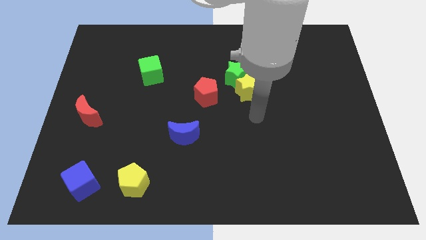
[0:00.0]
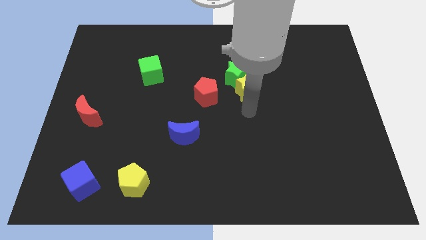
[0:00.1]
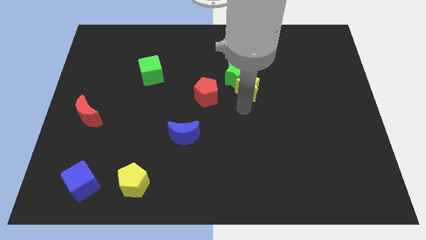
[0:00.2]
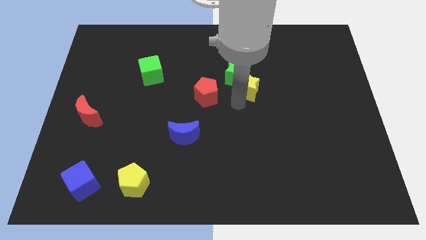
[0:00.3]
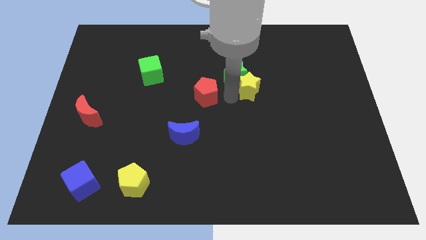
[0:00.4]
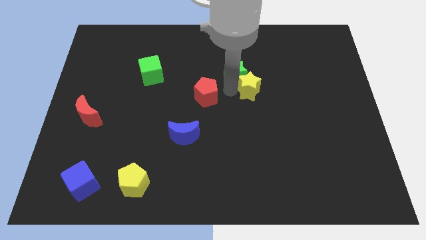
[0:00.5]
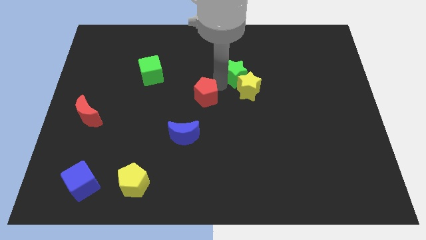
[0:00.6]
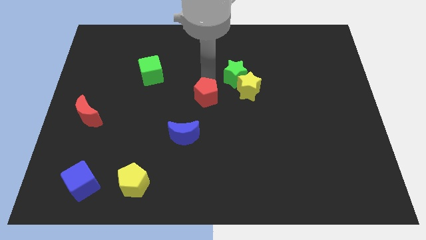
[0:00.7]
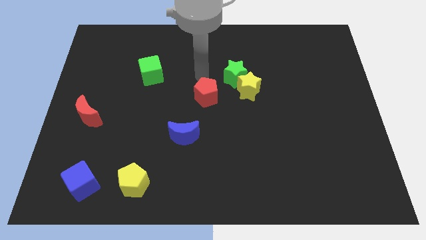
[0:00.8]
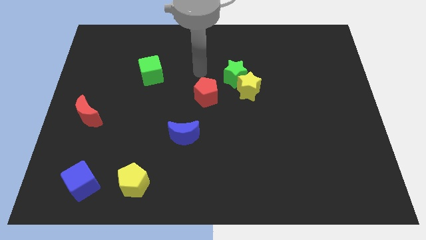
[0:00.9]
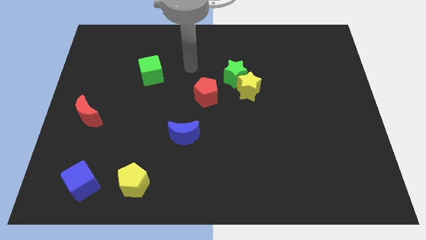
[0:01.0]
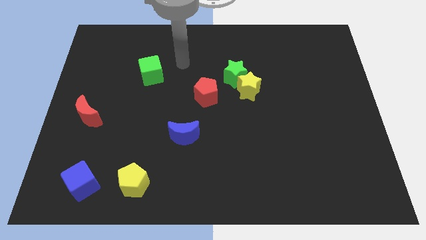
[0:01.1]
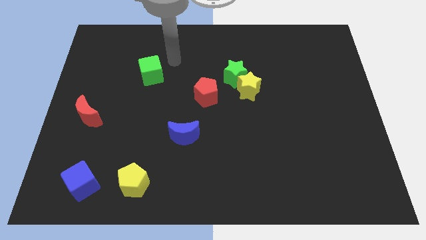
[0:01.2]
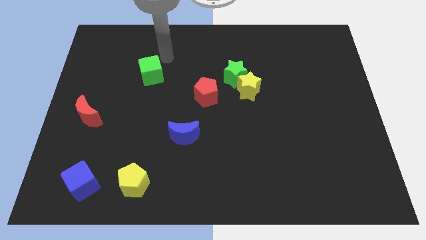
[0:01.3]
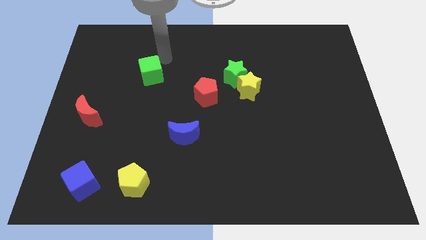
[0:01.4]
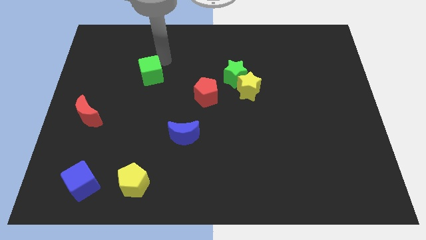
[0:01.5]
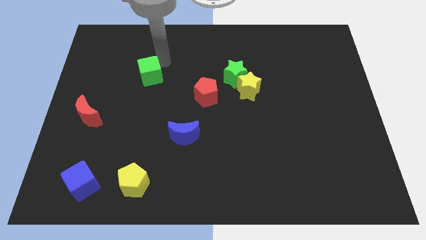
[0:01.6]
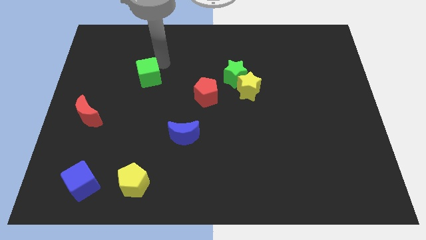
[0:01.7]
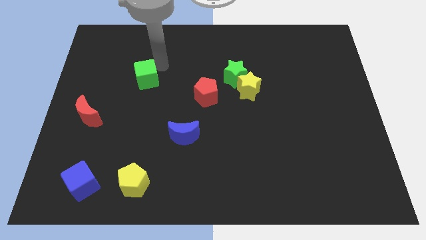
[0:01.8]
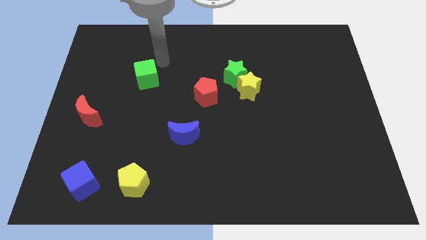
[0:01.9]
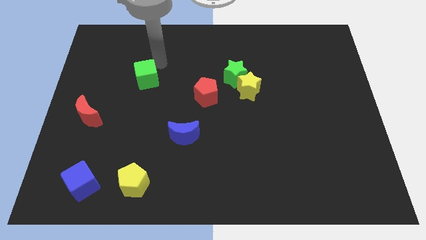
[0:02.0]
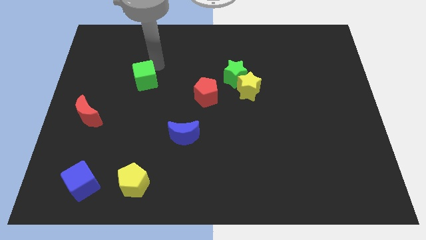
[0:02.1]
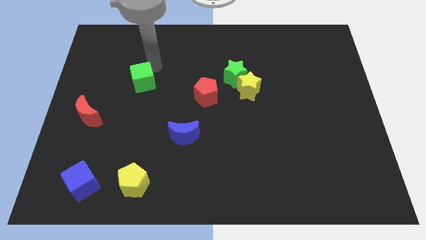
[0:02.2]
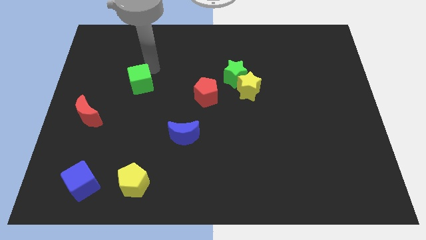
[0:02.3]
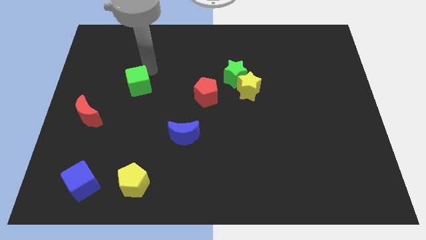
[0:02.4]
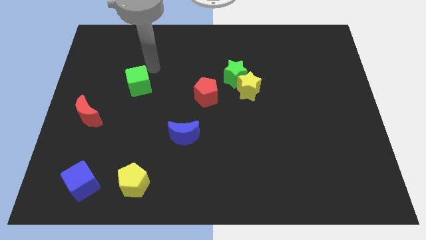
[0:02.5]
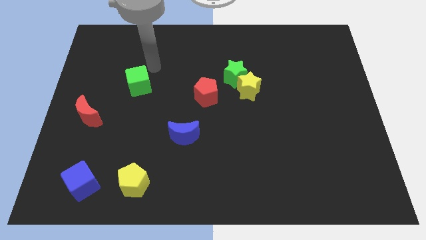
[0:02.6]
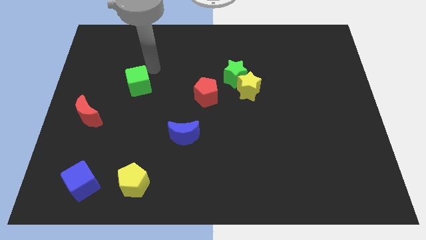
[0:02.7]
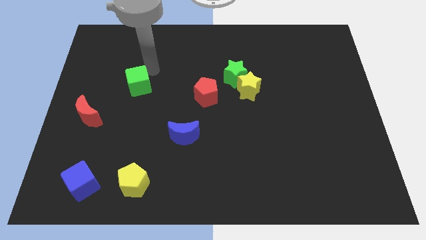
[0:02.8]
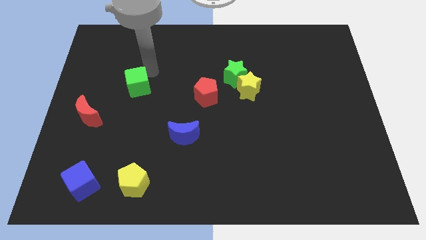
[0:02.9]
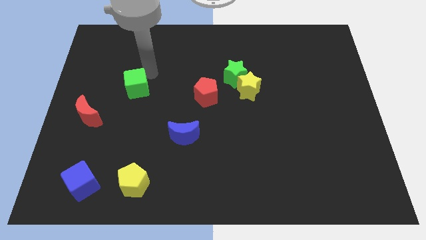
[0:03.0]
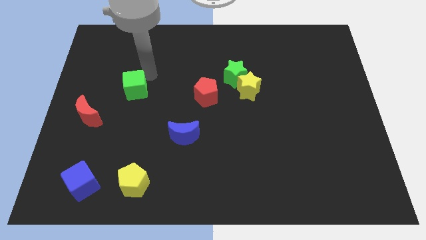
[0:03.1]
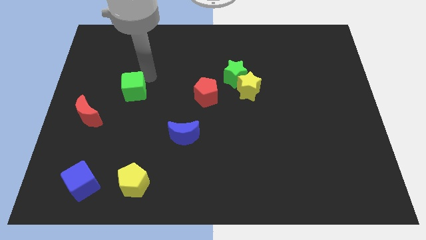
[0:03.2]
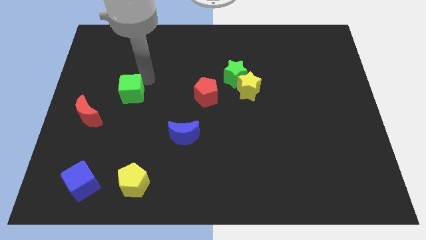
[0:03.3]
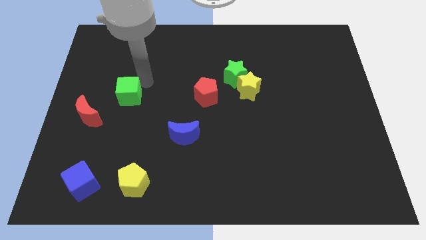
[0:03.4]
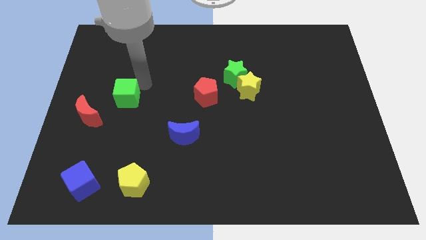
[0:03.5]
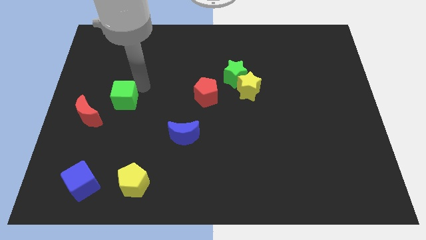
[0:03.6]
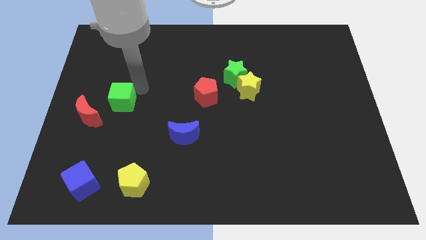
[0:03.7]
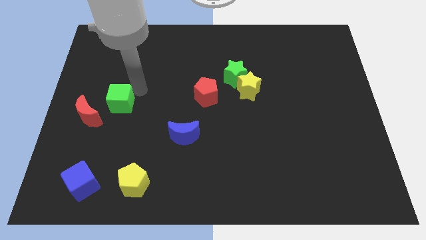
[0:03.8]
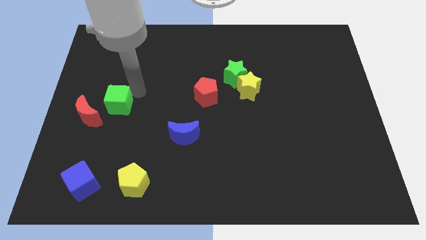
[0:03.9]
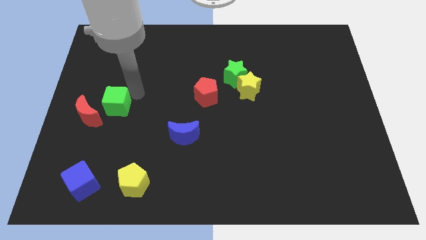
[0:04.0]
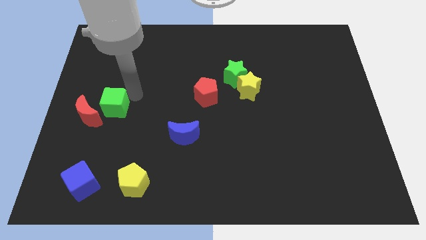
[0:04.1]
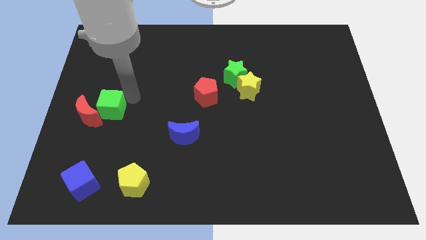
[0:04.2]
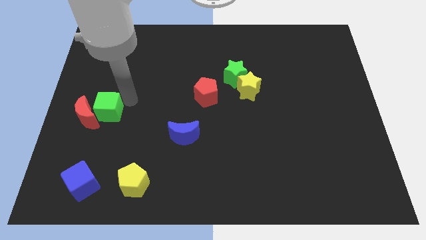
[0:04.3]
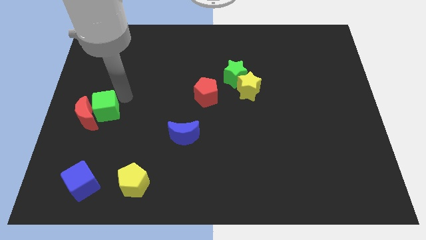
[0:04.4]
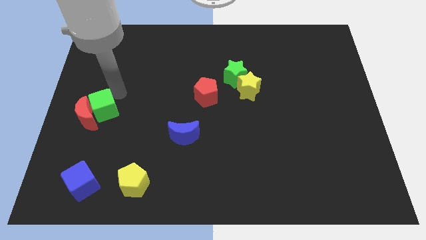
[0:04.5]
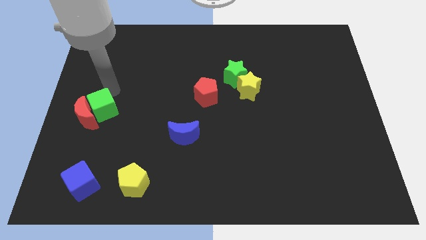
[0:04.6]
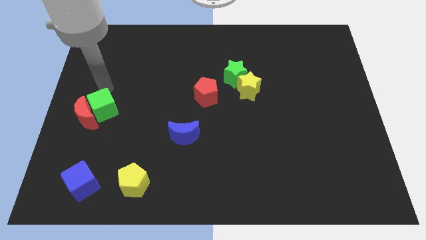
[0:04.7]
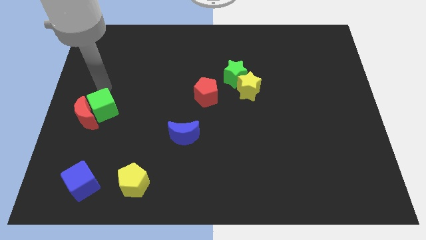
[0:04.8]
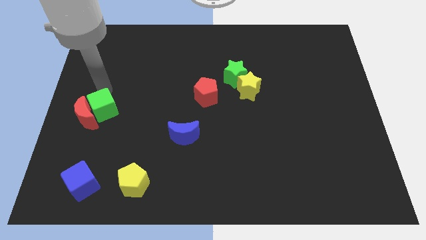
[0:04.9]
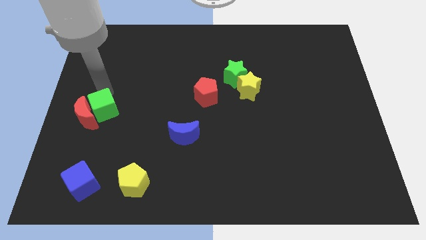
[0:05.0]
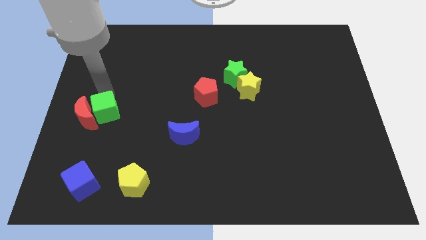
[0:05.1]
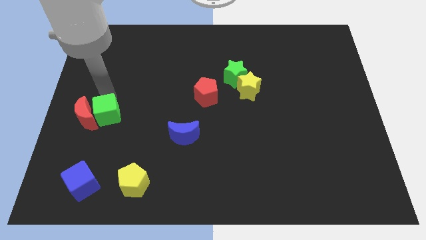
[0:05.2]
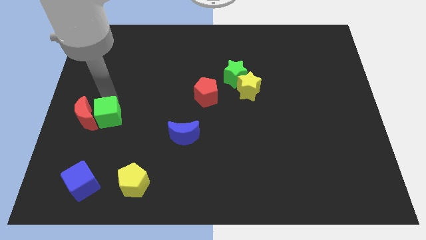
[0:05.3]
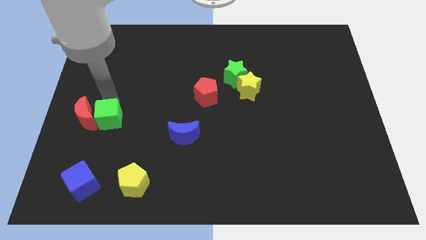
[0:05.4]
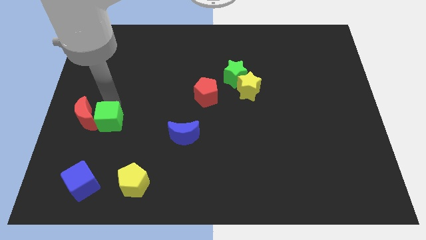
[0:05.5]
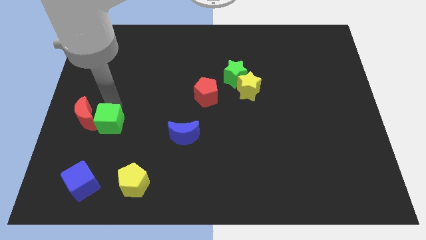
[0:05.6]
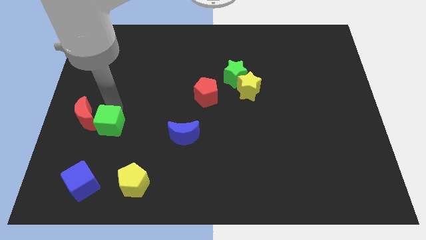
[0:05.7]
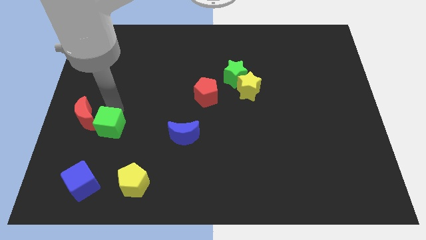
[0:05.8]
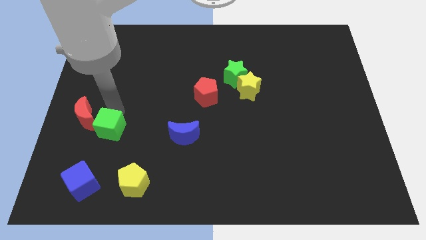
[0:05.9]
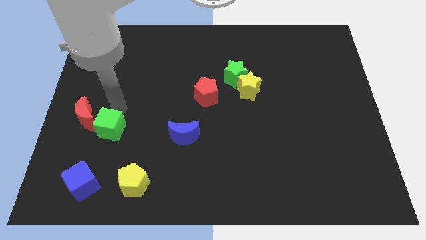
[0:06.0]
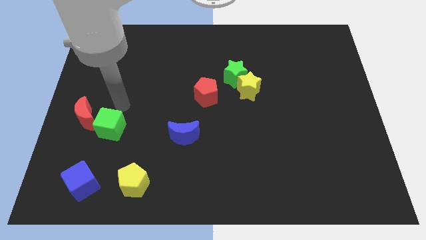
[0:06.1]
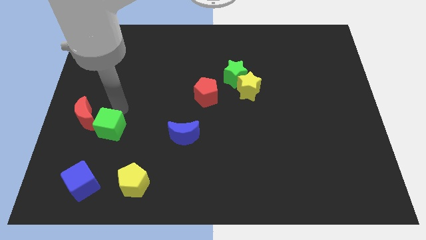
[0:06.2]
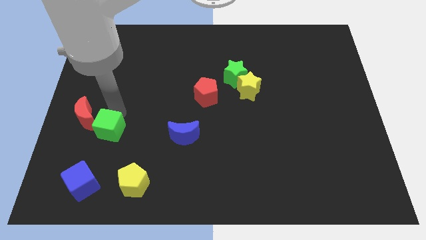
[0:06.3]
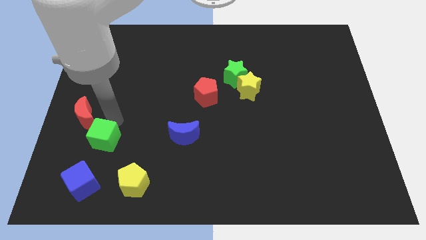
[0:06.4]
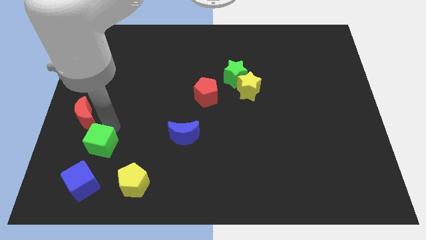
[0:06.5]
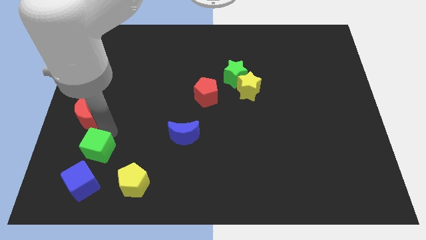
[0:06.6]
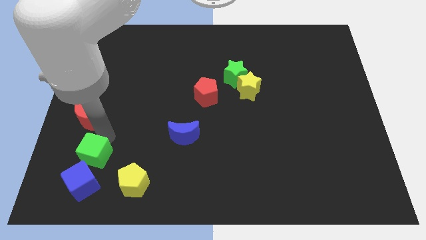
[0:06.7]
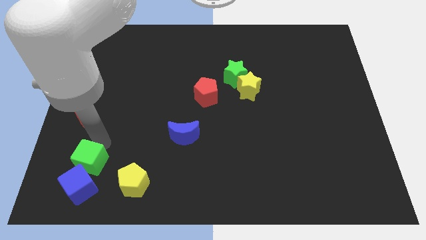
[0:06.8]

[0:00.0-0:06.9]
put the green cube close to the blue cube
